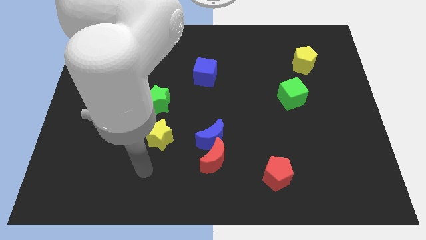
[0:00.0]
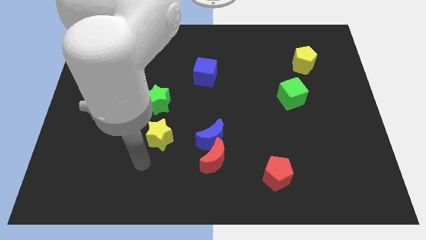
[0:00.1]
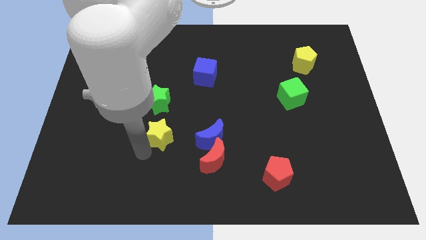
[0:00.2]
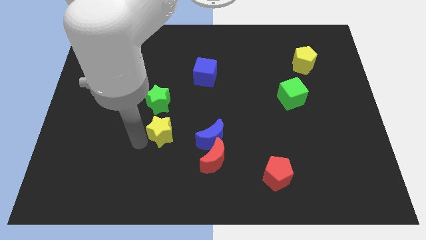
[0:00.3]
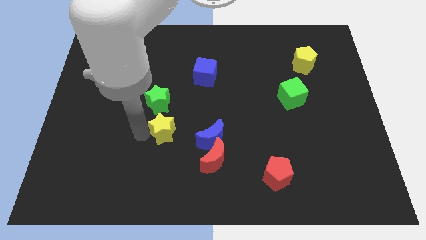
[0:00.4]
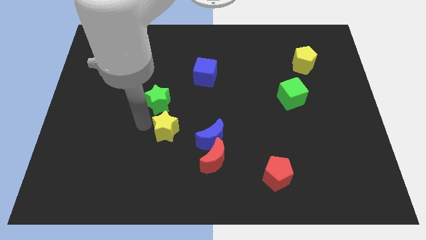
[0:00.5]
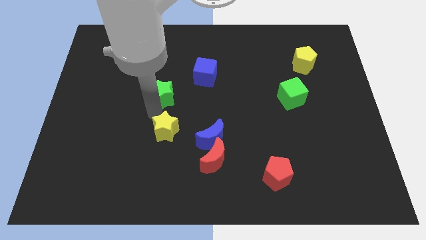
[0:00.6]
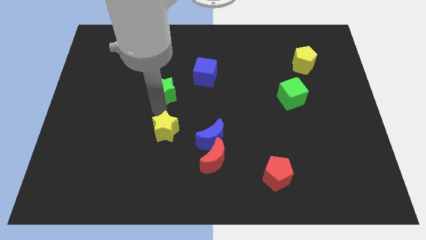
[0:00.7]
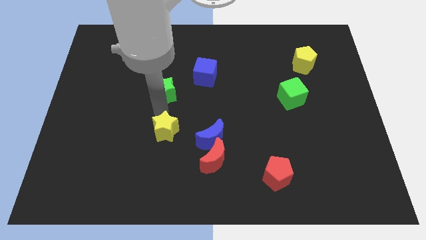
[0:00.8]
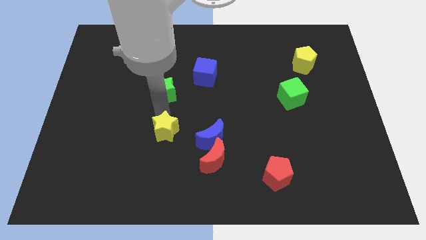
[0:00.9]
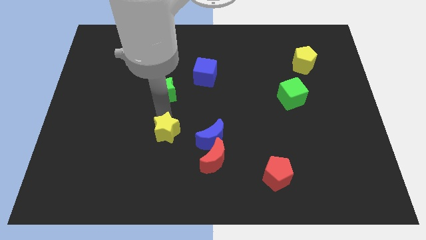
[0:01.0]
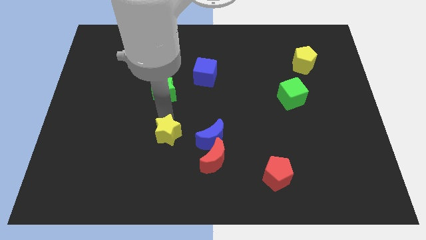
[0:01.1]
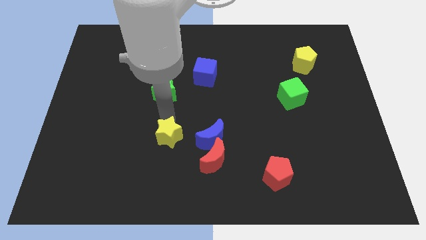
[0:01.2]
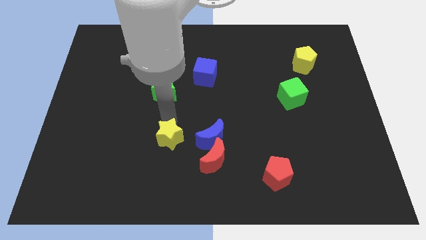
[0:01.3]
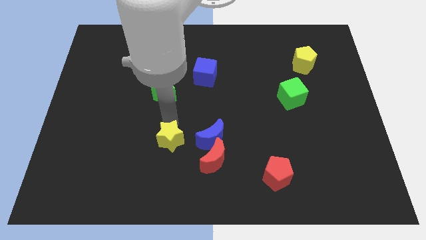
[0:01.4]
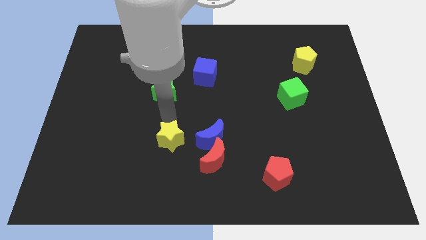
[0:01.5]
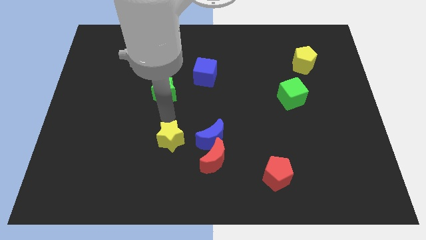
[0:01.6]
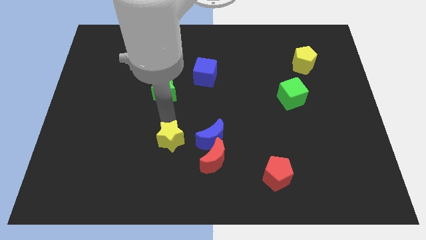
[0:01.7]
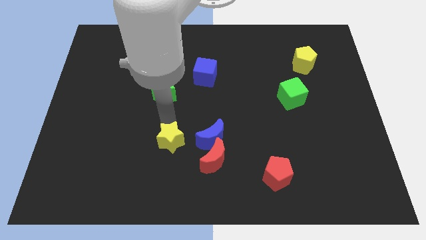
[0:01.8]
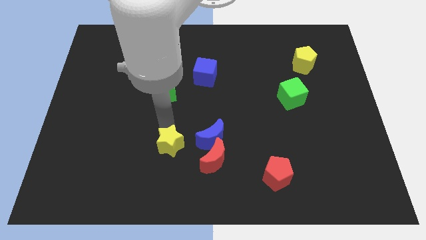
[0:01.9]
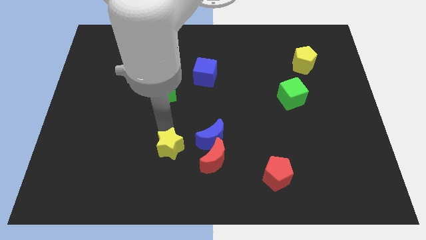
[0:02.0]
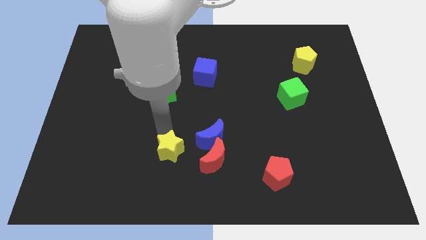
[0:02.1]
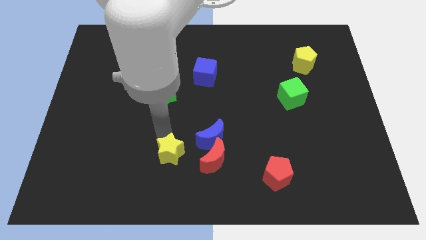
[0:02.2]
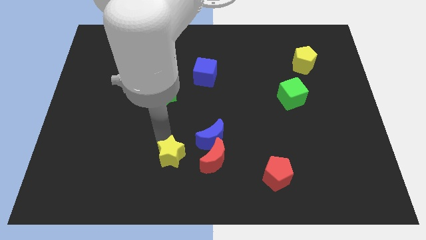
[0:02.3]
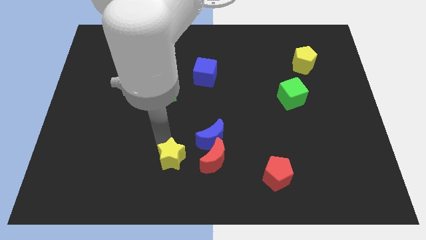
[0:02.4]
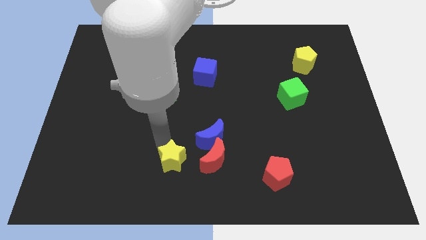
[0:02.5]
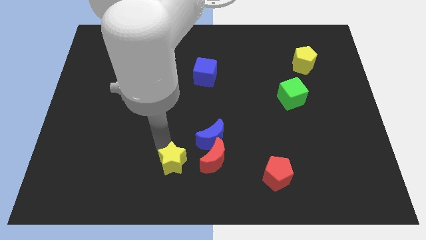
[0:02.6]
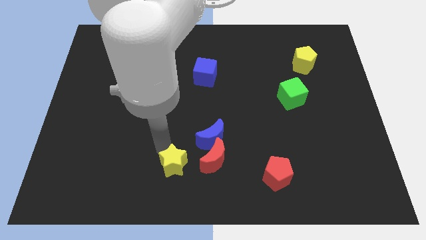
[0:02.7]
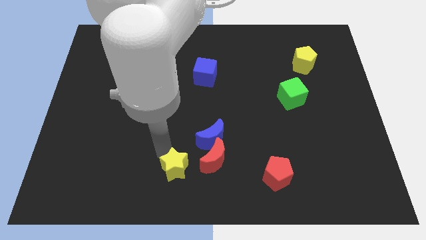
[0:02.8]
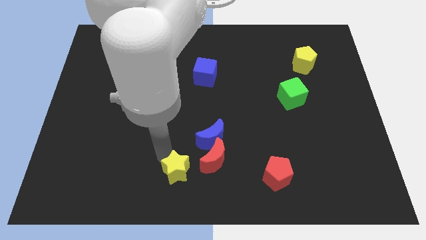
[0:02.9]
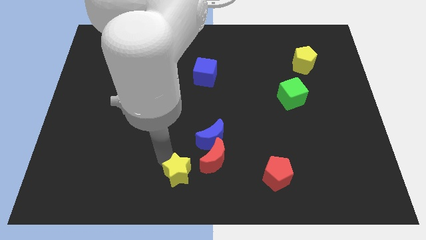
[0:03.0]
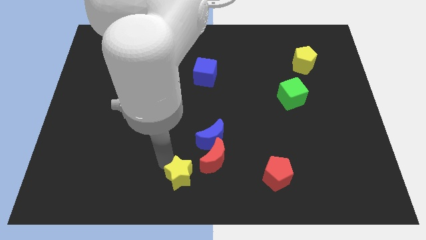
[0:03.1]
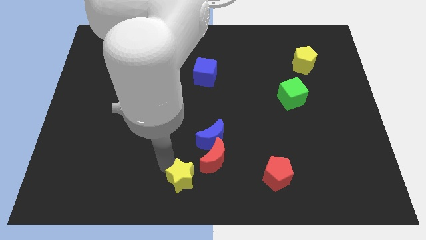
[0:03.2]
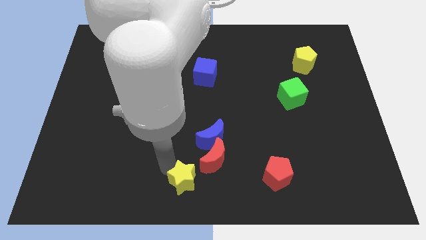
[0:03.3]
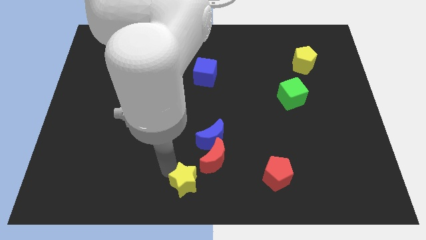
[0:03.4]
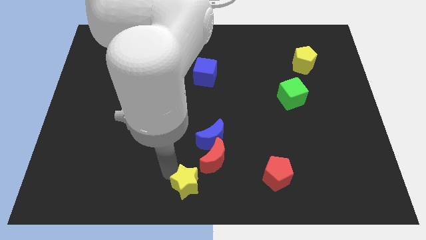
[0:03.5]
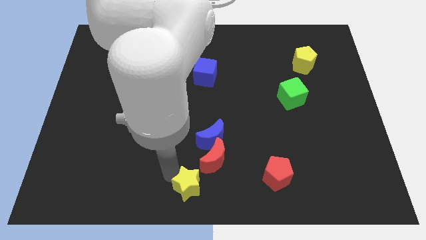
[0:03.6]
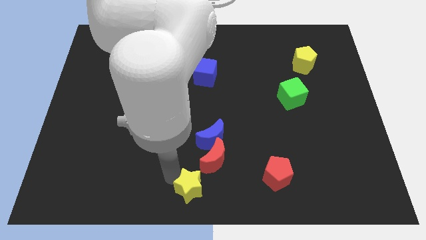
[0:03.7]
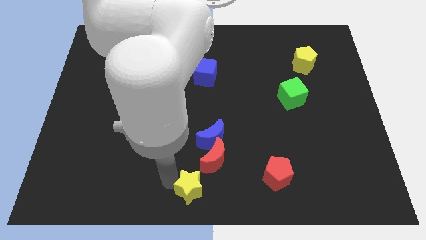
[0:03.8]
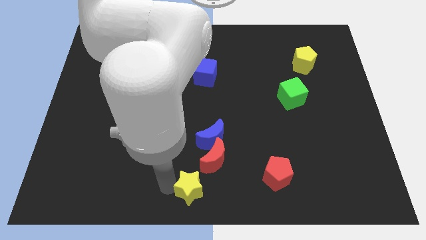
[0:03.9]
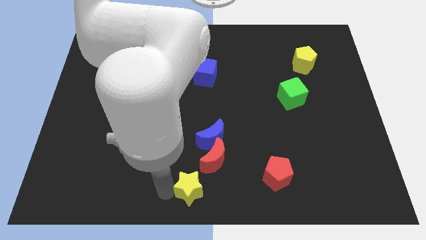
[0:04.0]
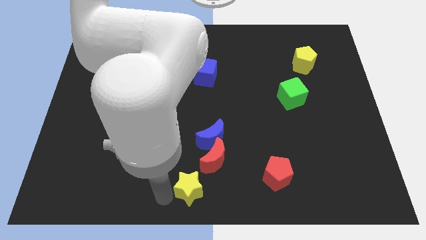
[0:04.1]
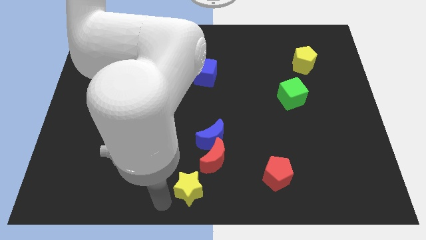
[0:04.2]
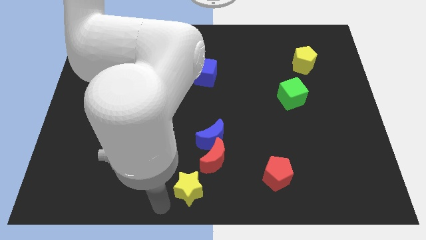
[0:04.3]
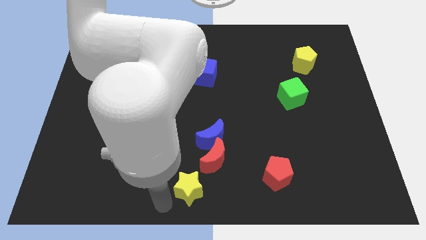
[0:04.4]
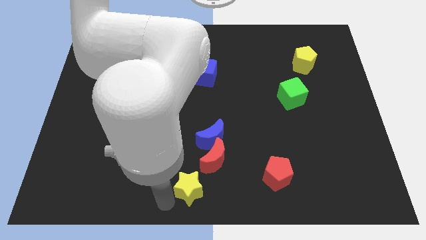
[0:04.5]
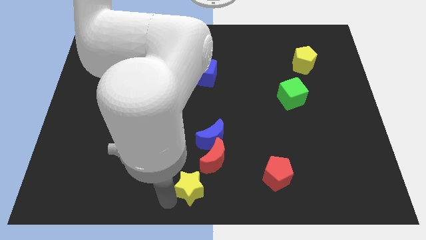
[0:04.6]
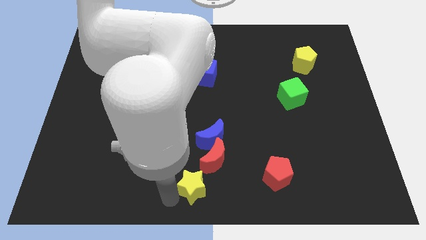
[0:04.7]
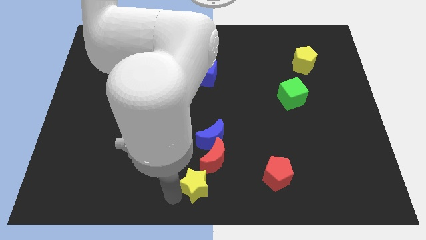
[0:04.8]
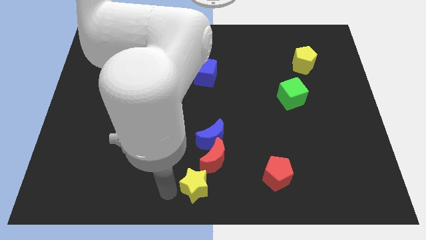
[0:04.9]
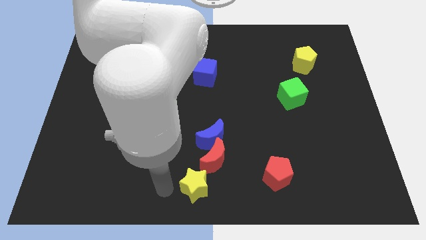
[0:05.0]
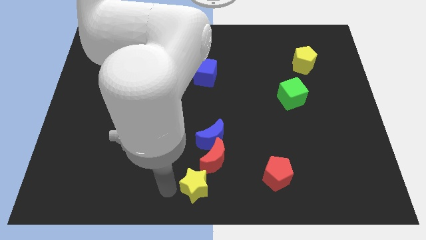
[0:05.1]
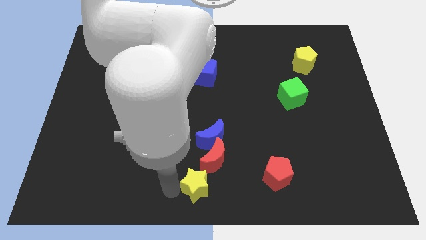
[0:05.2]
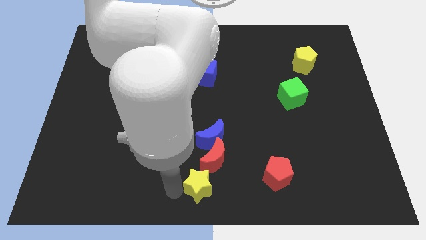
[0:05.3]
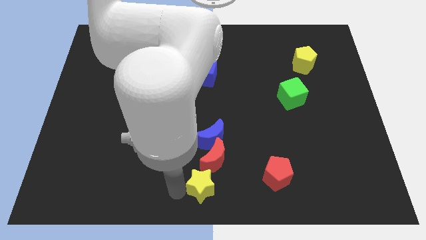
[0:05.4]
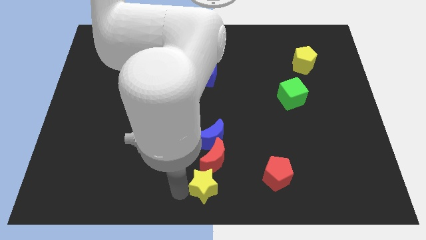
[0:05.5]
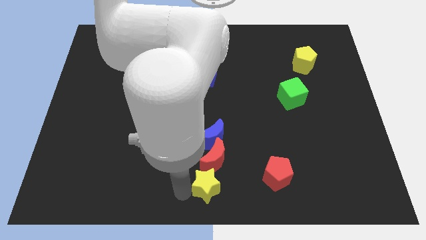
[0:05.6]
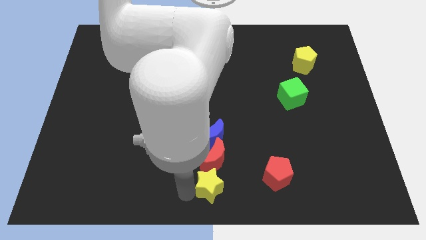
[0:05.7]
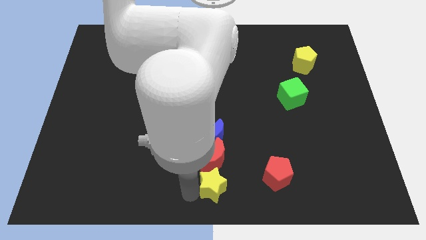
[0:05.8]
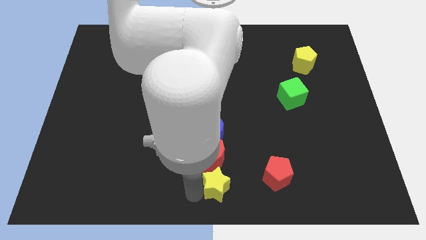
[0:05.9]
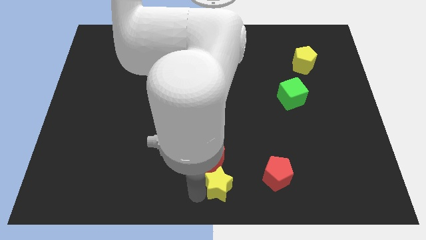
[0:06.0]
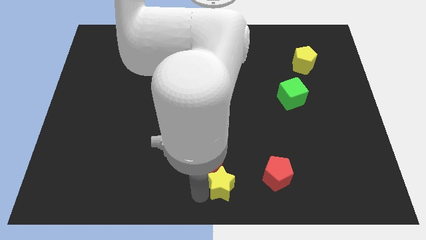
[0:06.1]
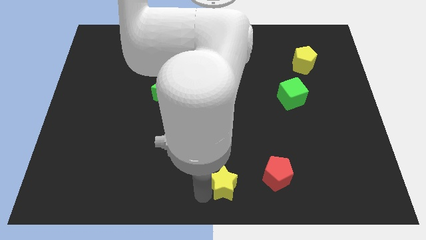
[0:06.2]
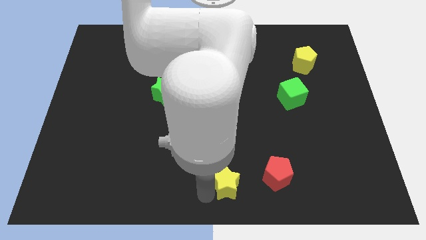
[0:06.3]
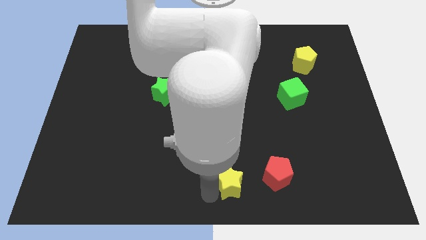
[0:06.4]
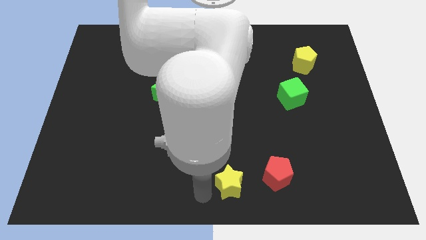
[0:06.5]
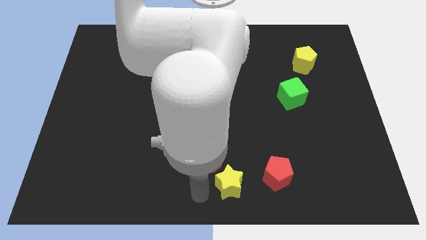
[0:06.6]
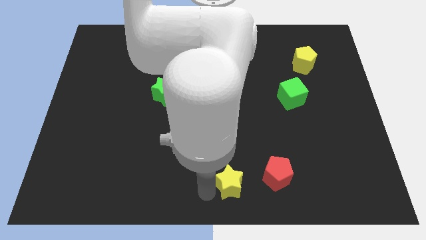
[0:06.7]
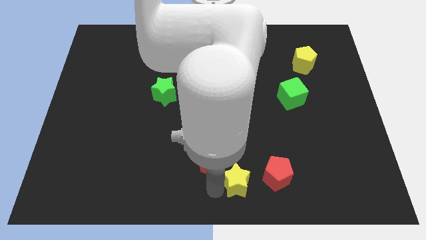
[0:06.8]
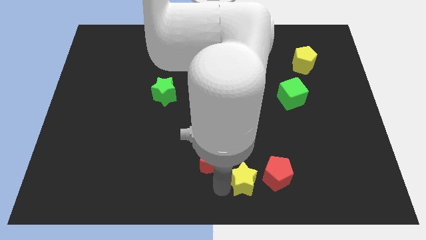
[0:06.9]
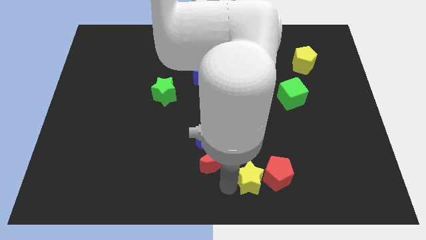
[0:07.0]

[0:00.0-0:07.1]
slide the yellow star to the red pentagon

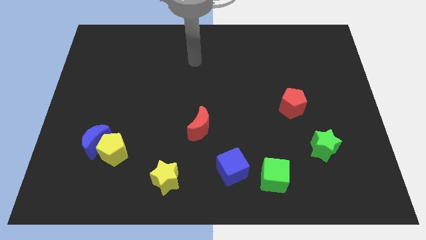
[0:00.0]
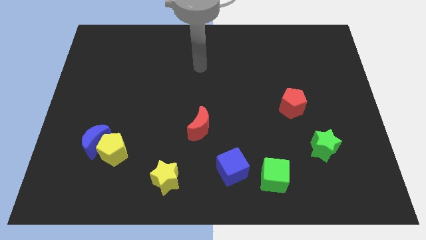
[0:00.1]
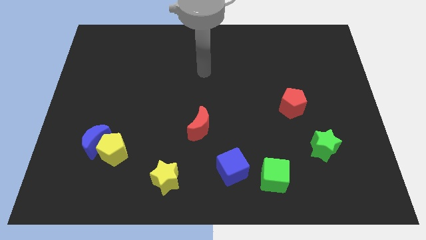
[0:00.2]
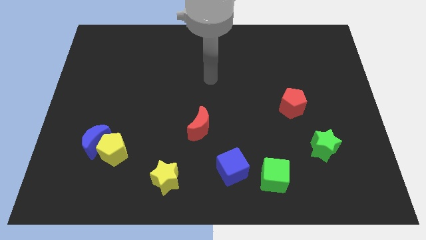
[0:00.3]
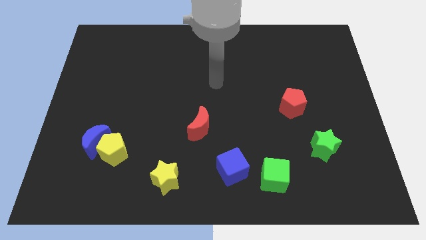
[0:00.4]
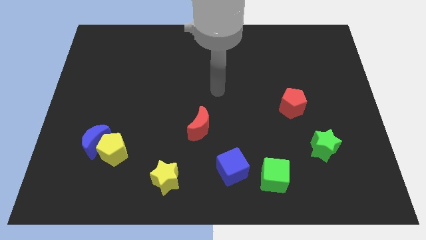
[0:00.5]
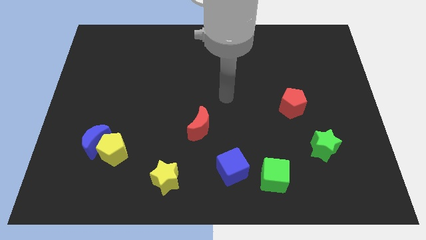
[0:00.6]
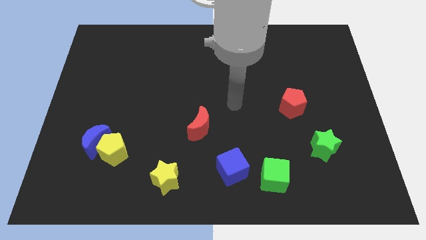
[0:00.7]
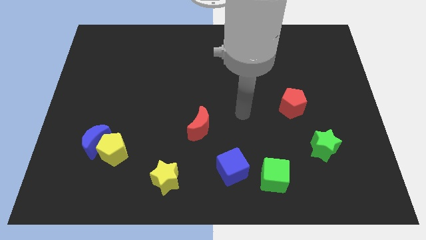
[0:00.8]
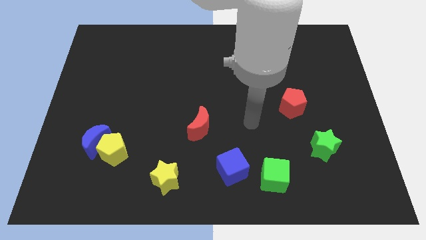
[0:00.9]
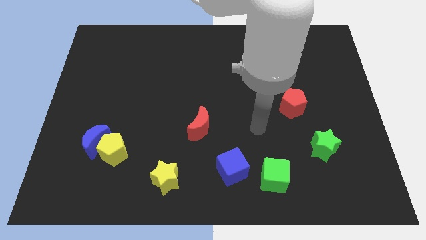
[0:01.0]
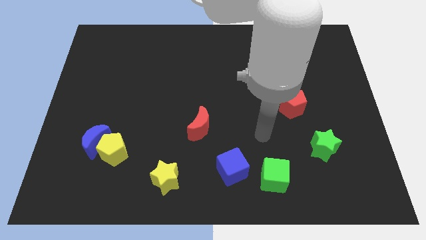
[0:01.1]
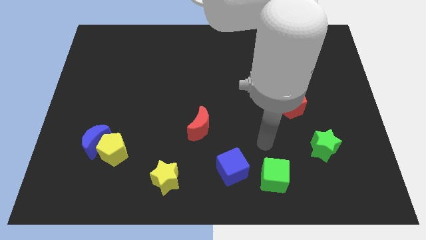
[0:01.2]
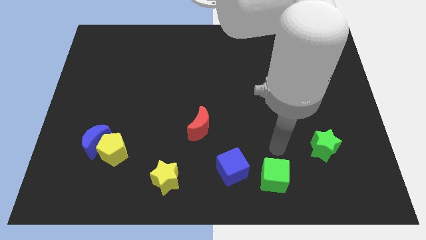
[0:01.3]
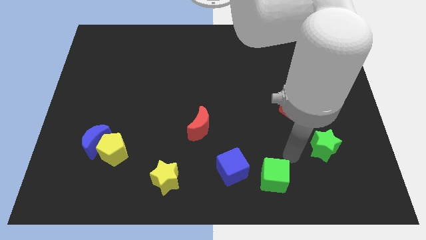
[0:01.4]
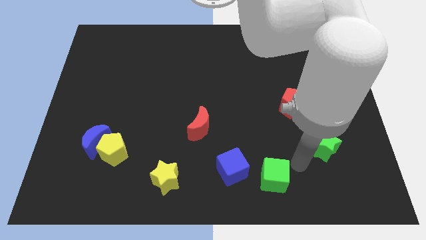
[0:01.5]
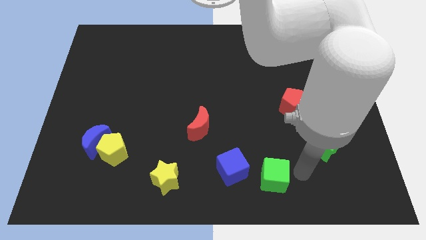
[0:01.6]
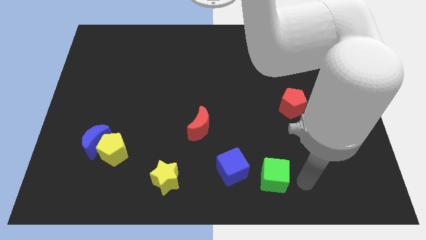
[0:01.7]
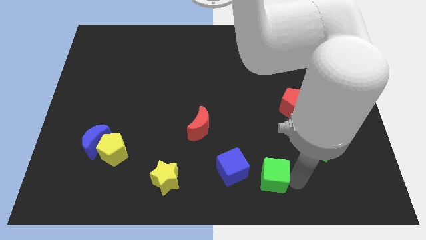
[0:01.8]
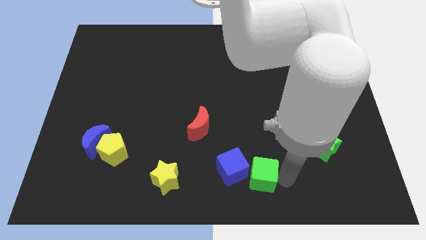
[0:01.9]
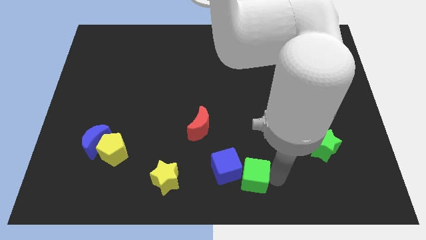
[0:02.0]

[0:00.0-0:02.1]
put the green cube to the blue cube
